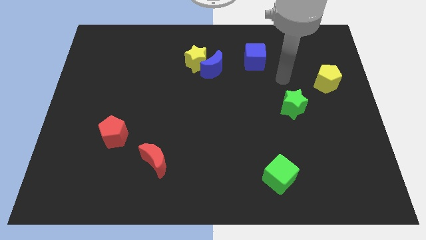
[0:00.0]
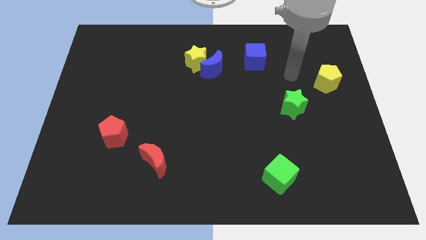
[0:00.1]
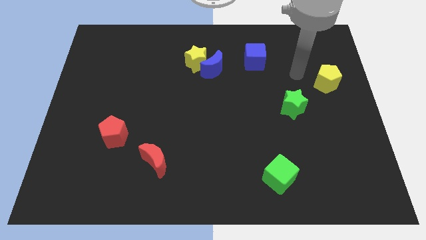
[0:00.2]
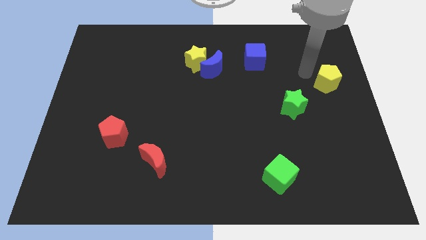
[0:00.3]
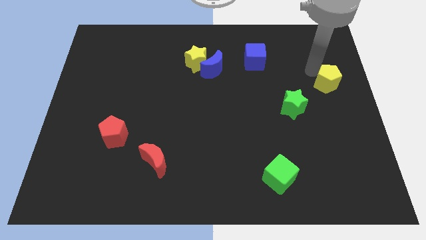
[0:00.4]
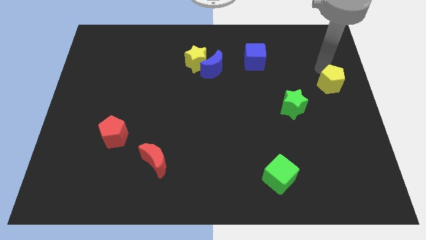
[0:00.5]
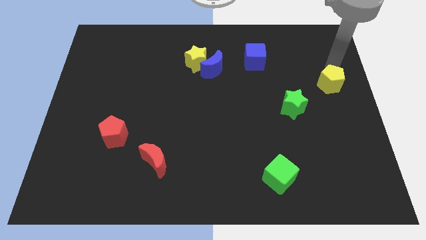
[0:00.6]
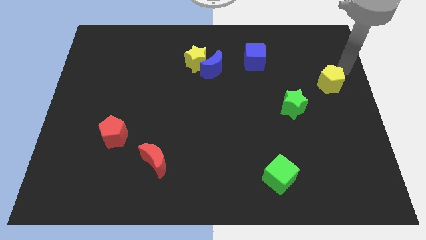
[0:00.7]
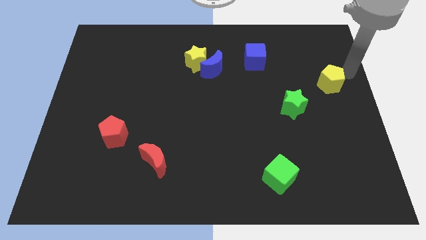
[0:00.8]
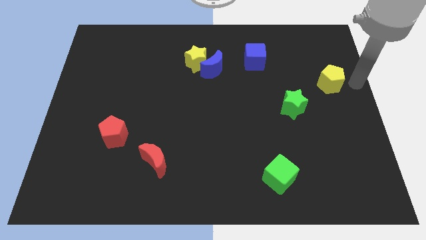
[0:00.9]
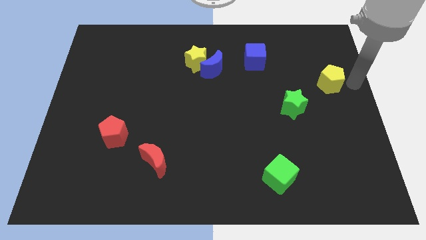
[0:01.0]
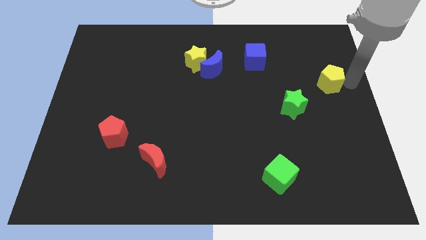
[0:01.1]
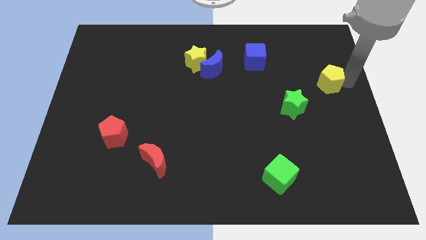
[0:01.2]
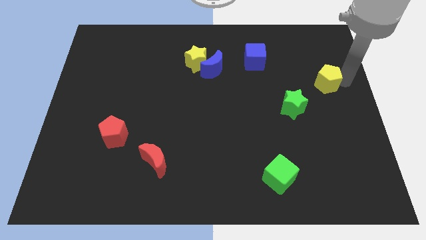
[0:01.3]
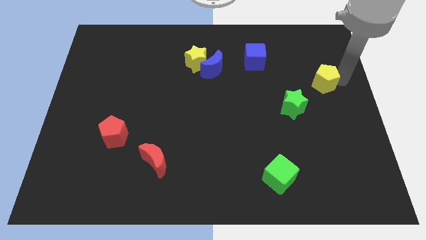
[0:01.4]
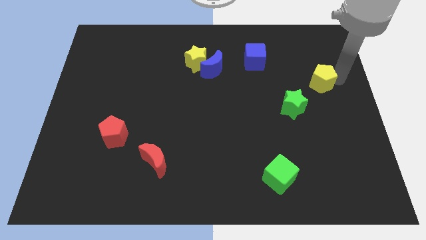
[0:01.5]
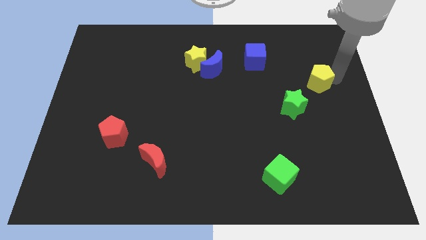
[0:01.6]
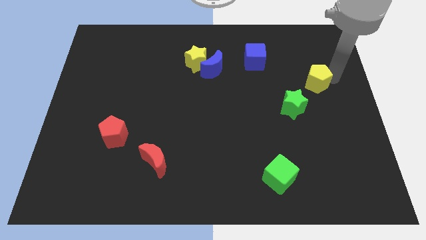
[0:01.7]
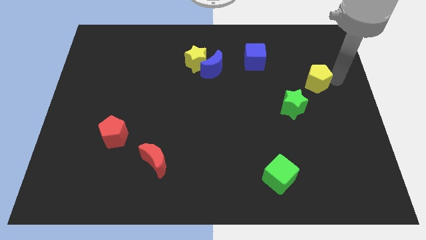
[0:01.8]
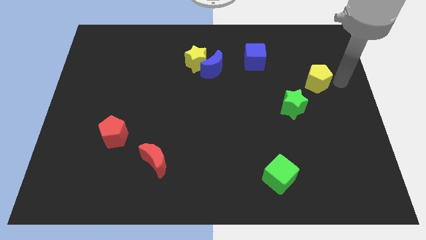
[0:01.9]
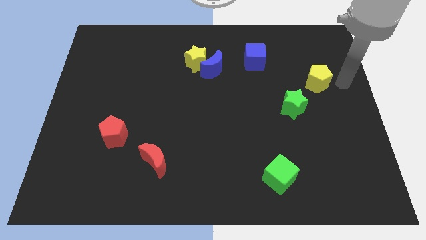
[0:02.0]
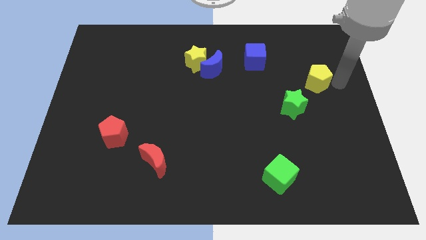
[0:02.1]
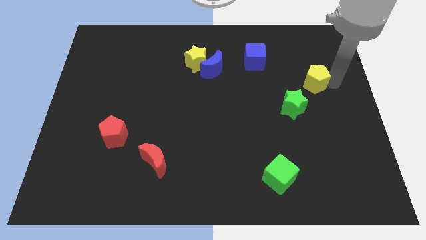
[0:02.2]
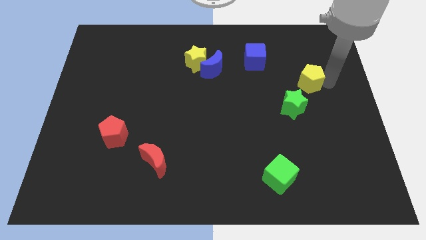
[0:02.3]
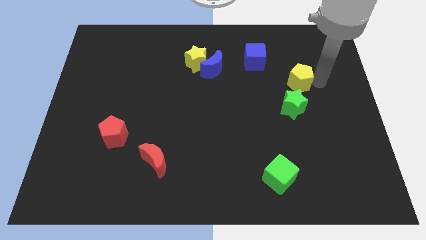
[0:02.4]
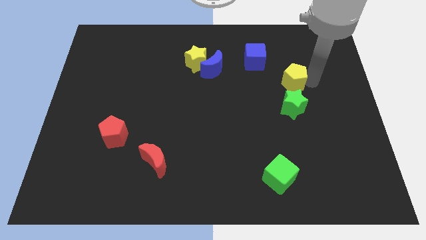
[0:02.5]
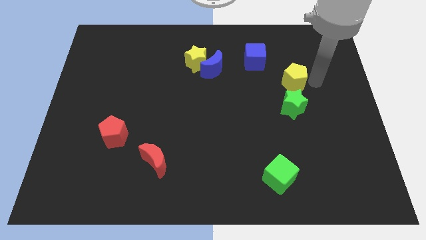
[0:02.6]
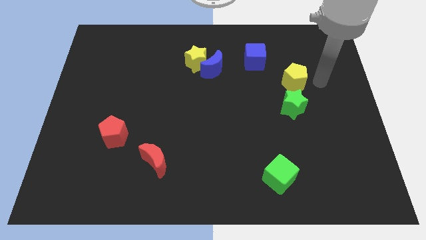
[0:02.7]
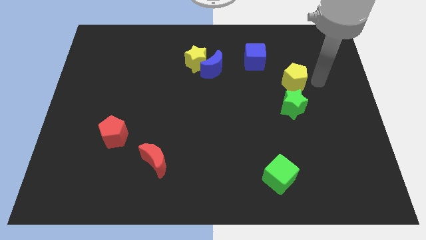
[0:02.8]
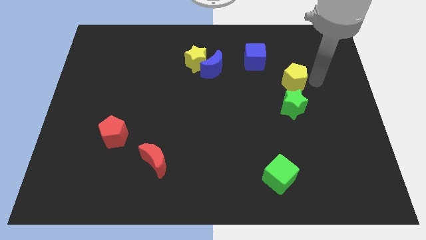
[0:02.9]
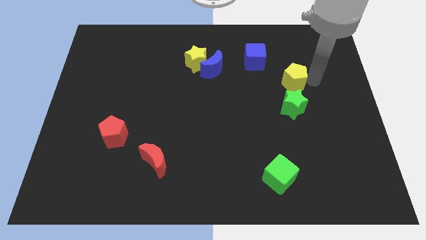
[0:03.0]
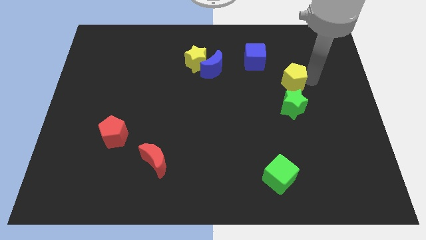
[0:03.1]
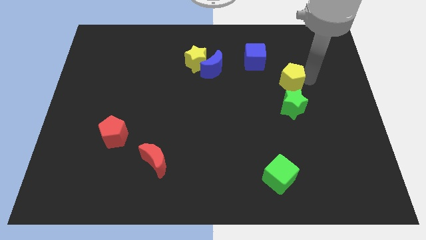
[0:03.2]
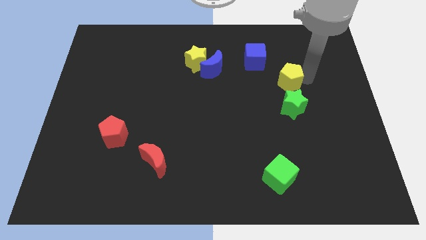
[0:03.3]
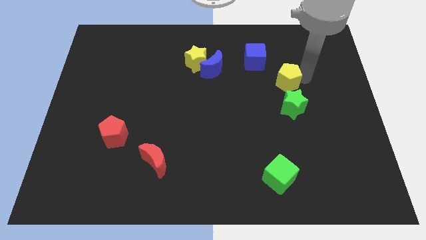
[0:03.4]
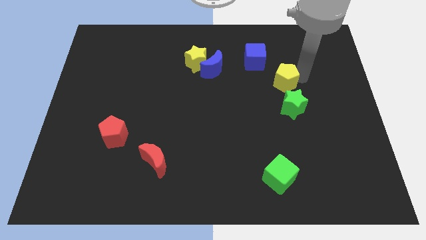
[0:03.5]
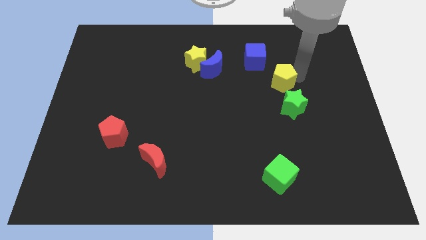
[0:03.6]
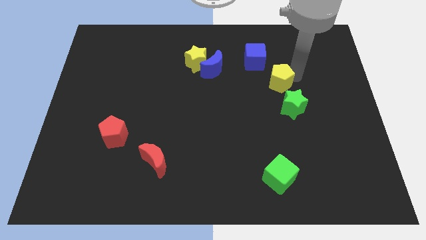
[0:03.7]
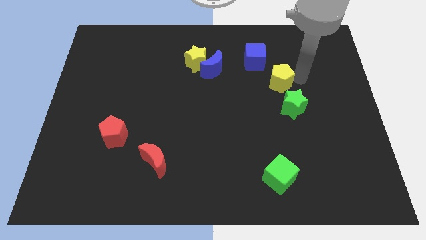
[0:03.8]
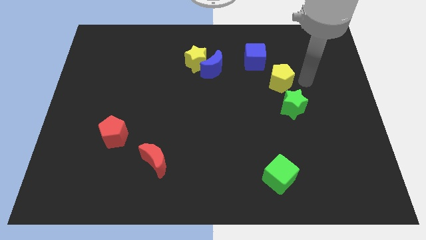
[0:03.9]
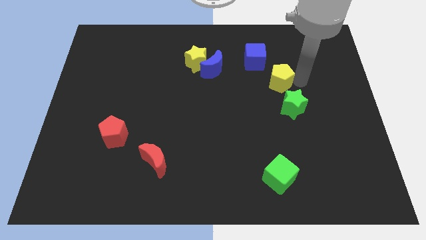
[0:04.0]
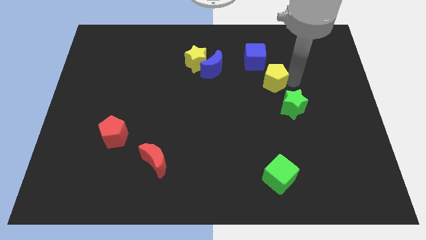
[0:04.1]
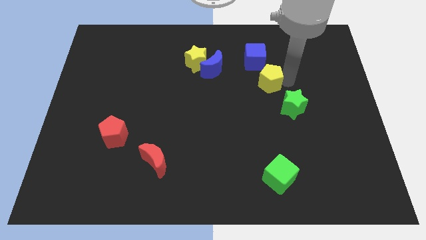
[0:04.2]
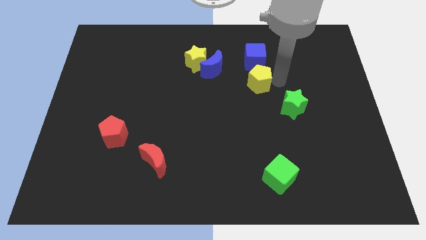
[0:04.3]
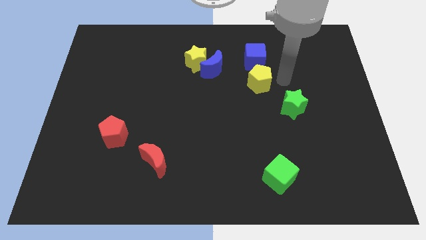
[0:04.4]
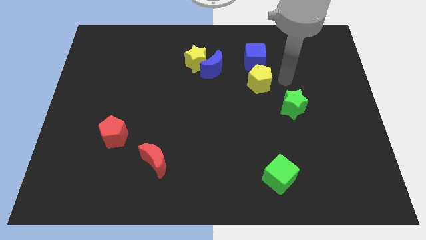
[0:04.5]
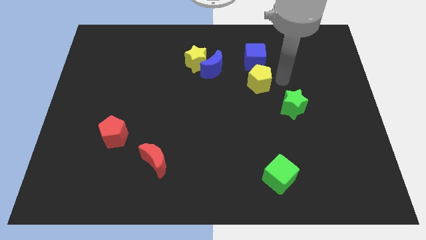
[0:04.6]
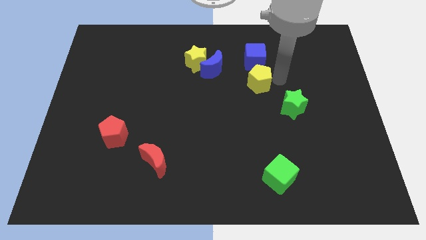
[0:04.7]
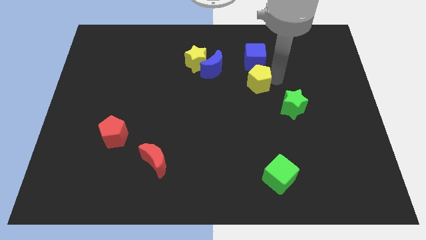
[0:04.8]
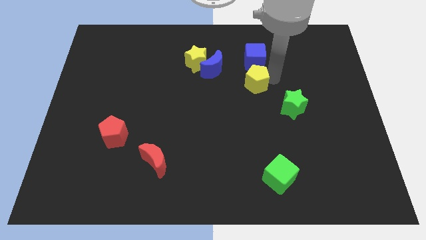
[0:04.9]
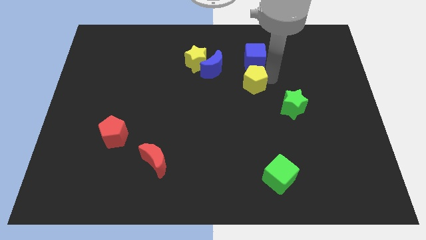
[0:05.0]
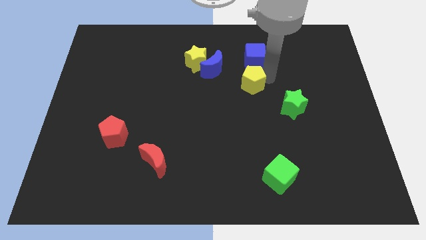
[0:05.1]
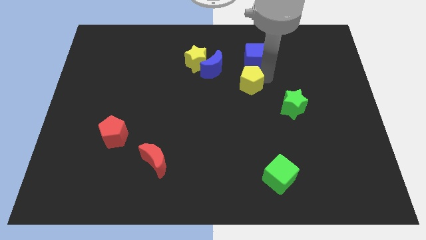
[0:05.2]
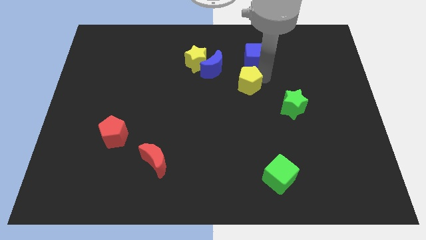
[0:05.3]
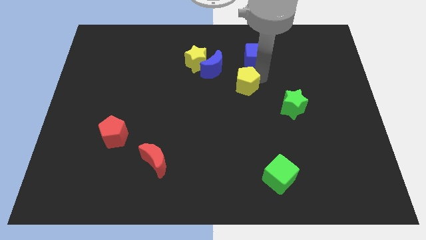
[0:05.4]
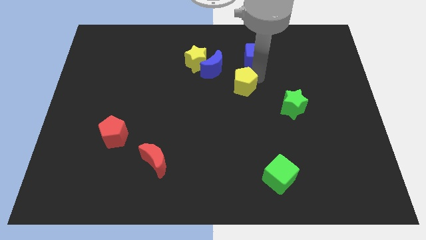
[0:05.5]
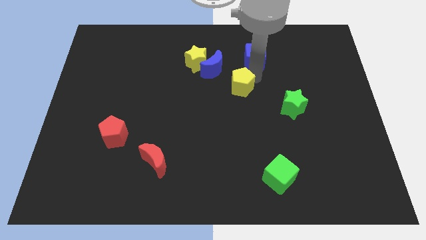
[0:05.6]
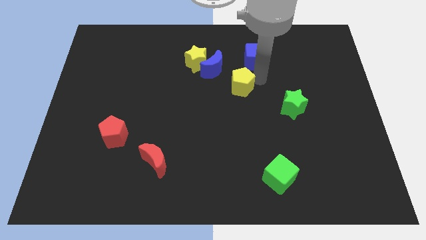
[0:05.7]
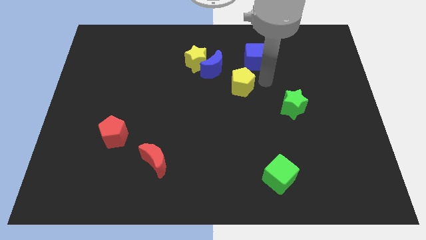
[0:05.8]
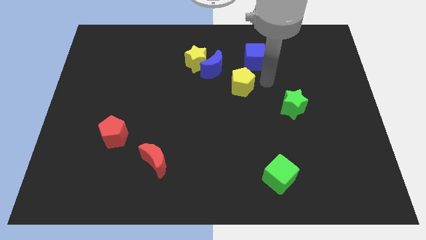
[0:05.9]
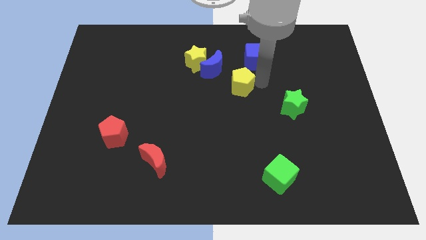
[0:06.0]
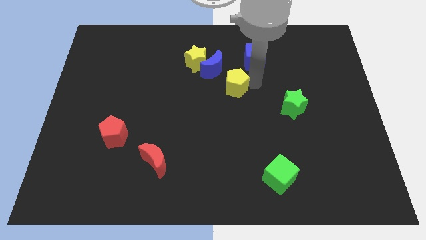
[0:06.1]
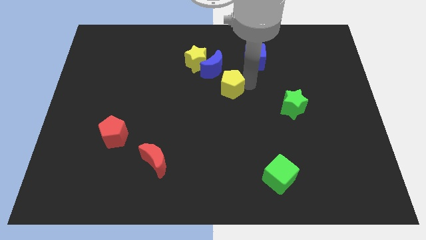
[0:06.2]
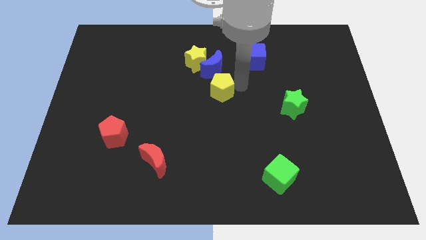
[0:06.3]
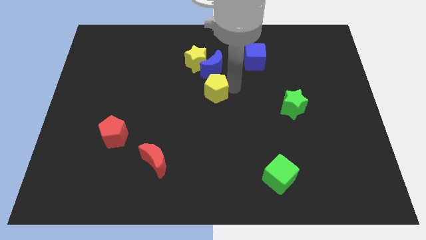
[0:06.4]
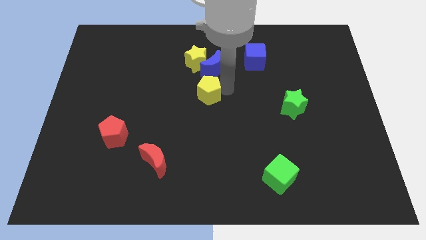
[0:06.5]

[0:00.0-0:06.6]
put the yellow pentagon below the yellow star

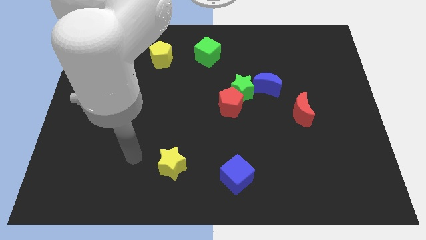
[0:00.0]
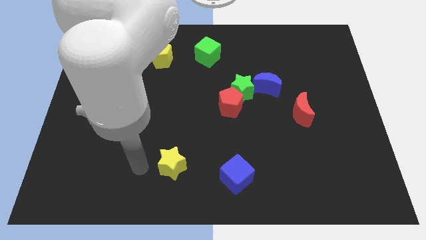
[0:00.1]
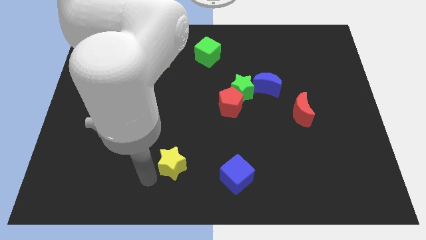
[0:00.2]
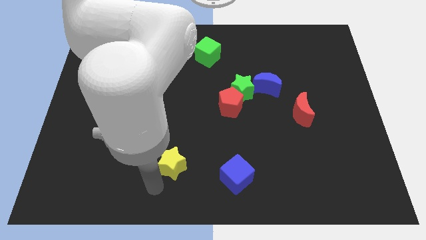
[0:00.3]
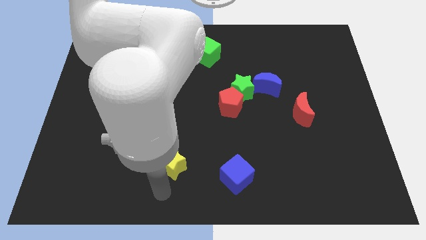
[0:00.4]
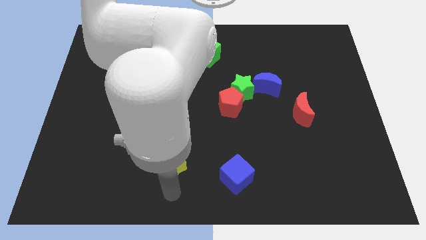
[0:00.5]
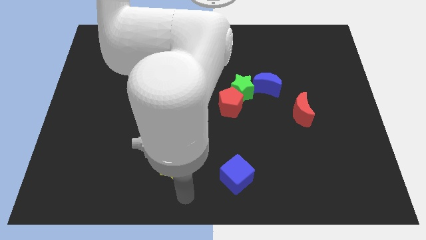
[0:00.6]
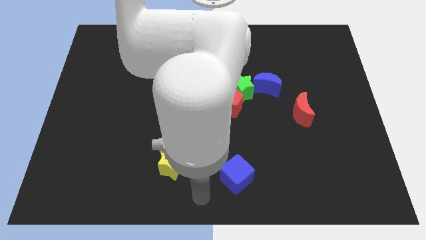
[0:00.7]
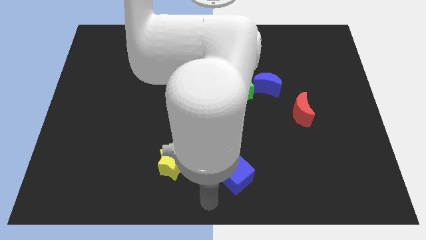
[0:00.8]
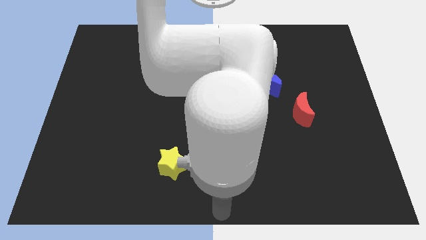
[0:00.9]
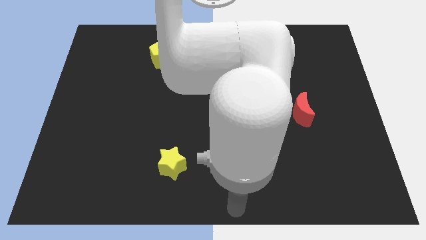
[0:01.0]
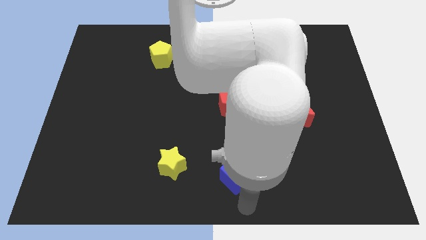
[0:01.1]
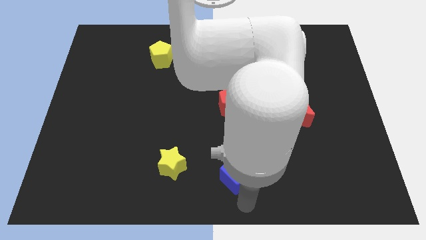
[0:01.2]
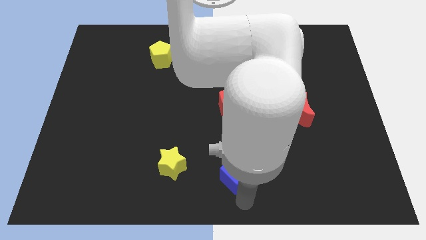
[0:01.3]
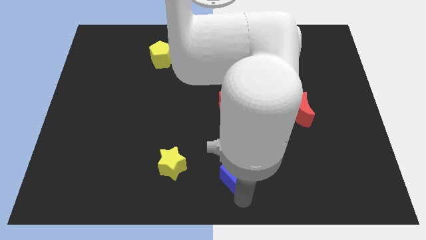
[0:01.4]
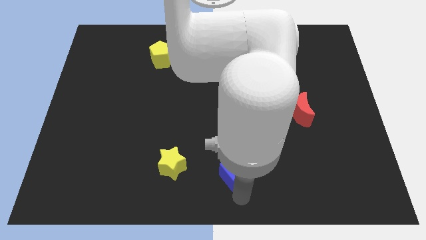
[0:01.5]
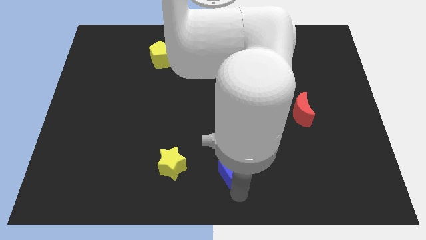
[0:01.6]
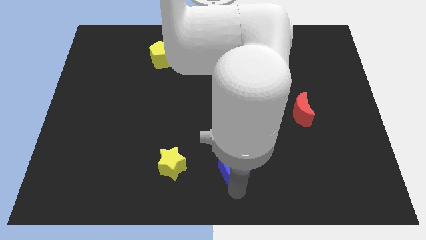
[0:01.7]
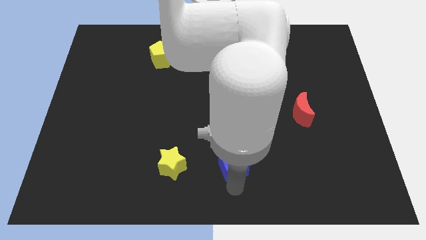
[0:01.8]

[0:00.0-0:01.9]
move the blue cube to the bottom side of the red pentagon
